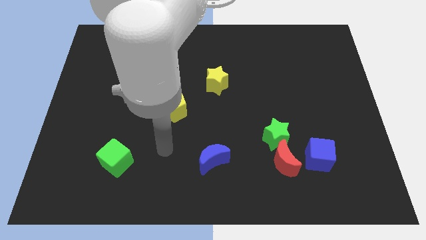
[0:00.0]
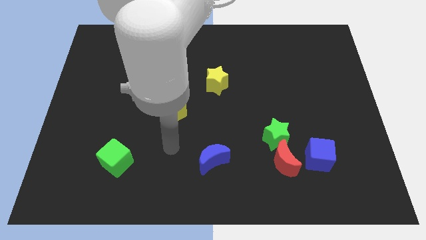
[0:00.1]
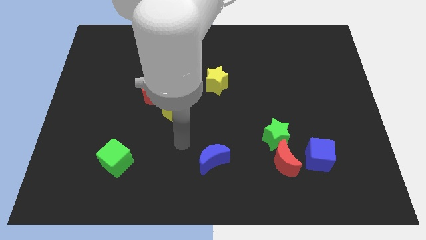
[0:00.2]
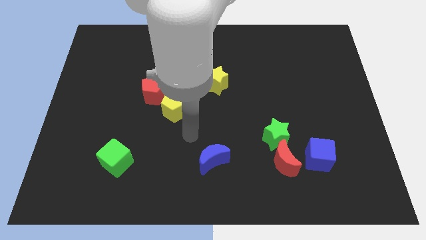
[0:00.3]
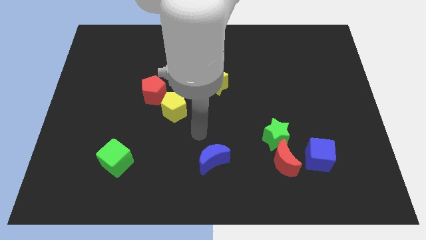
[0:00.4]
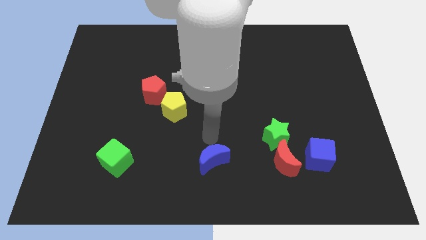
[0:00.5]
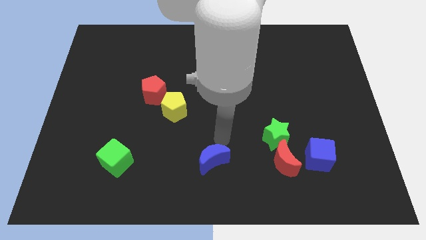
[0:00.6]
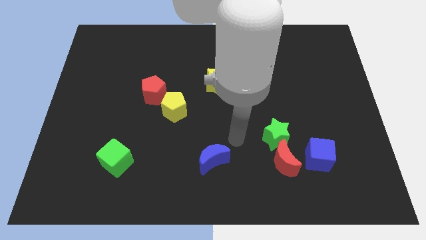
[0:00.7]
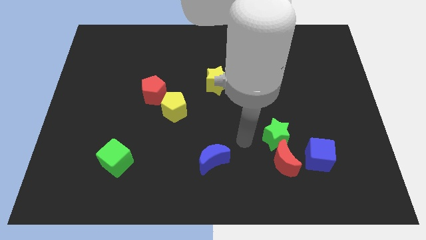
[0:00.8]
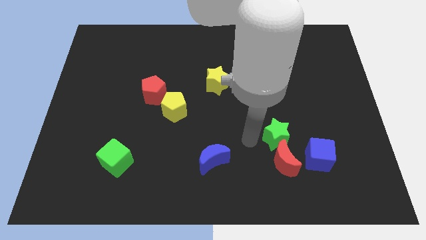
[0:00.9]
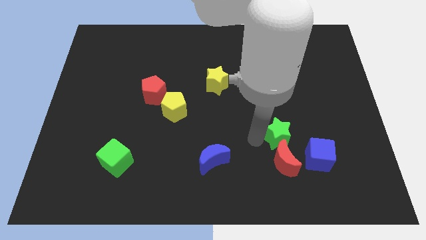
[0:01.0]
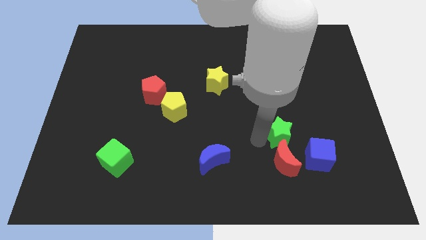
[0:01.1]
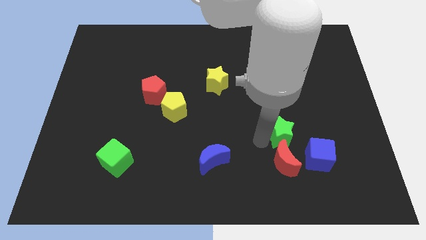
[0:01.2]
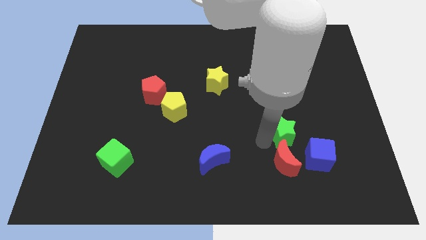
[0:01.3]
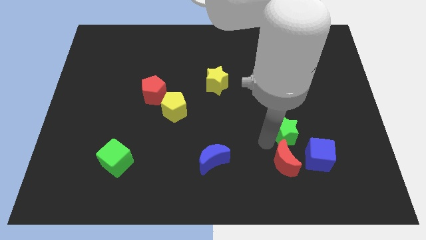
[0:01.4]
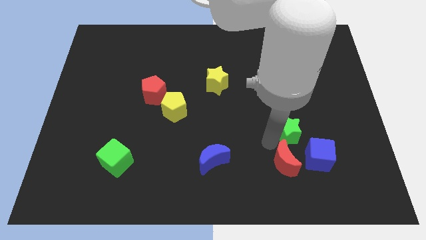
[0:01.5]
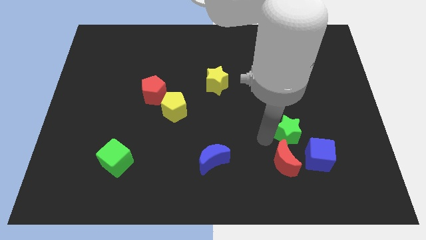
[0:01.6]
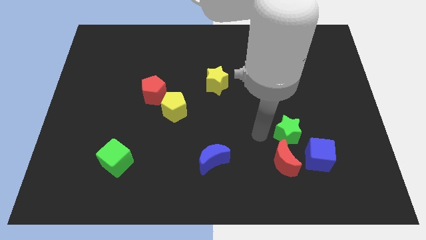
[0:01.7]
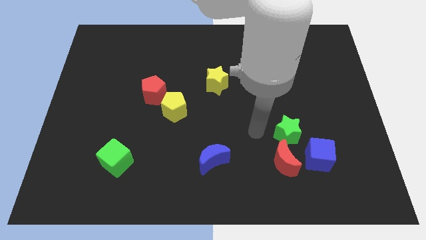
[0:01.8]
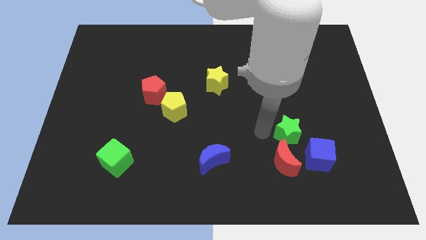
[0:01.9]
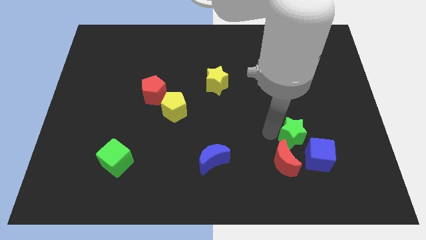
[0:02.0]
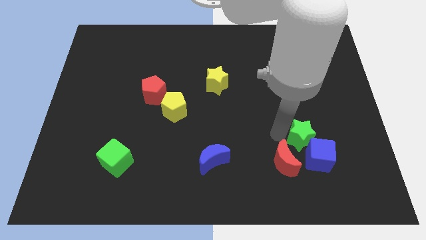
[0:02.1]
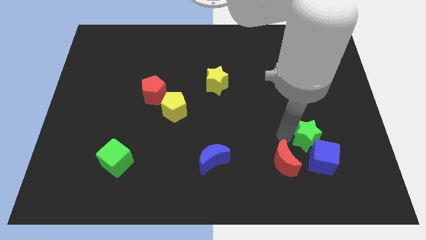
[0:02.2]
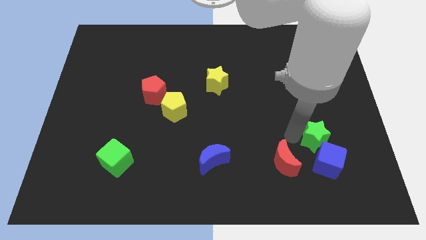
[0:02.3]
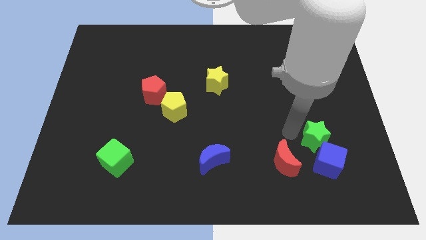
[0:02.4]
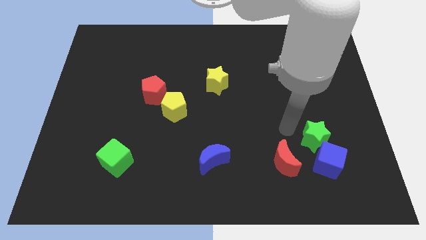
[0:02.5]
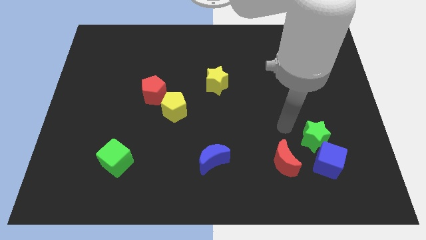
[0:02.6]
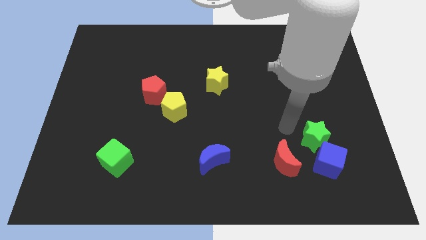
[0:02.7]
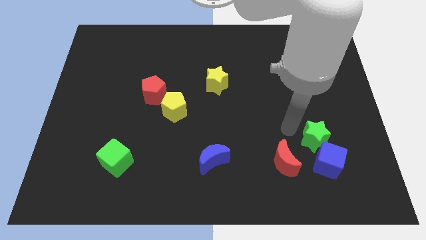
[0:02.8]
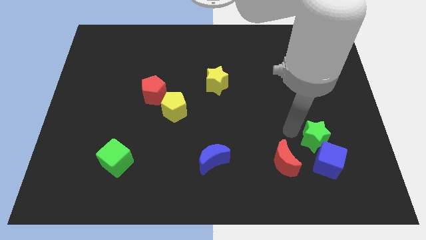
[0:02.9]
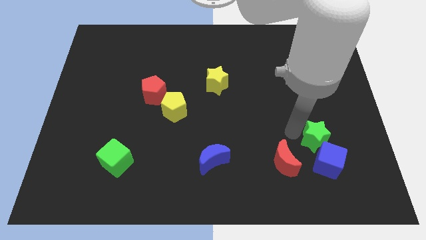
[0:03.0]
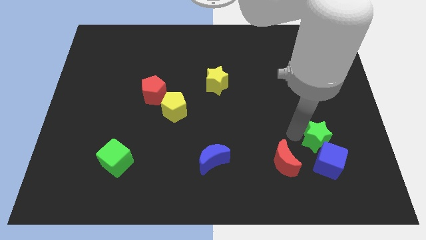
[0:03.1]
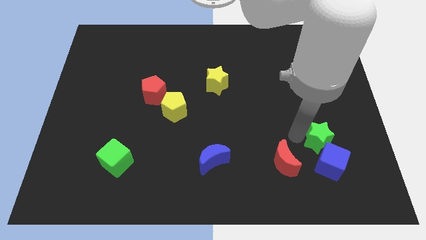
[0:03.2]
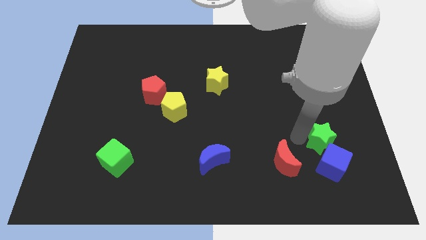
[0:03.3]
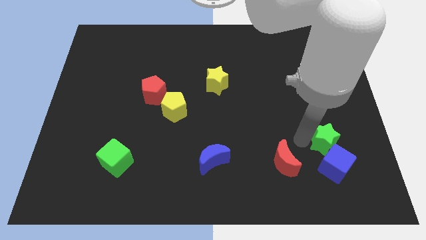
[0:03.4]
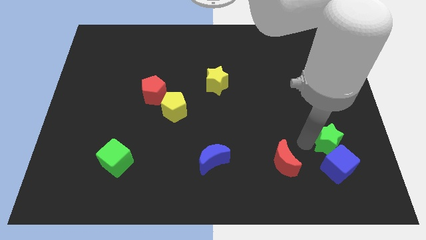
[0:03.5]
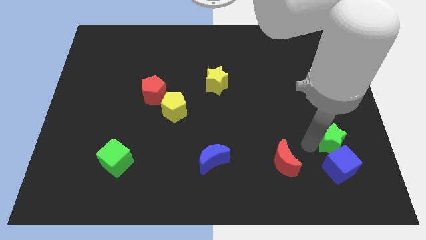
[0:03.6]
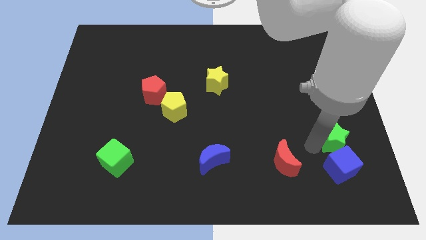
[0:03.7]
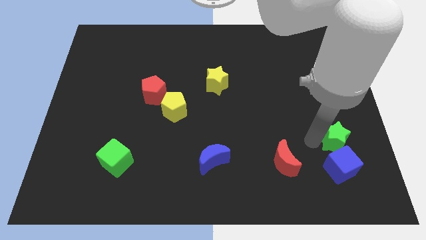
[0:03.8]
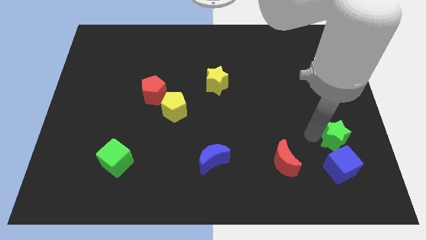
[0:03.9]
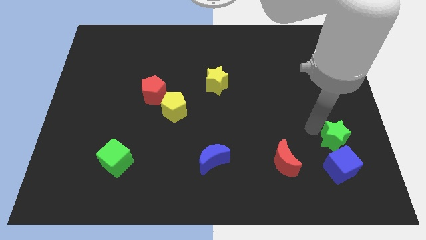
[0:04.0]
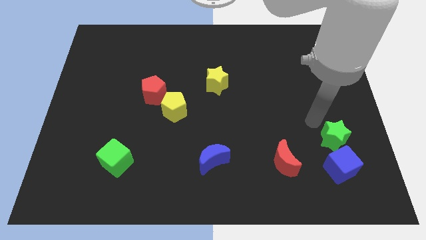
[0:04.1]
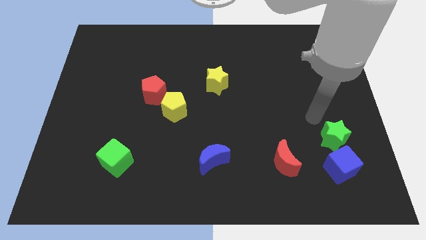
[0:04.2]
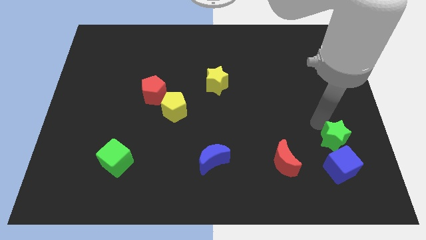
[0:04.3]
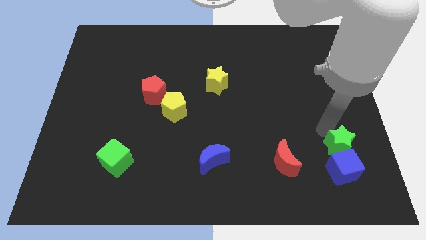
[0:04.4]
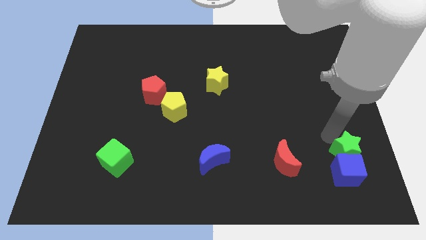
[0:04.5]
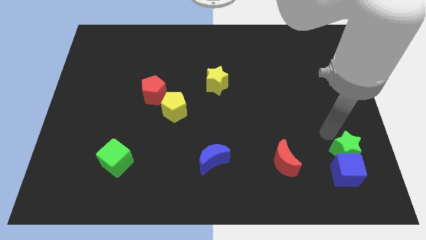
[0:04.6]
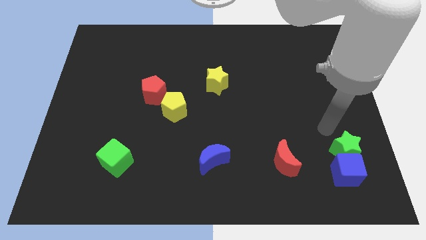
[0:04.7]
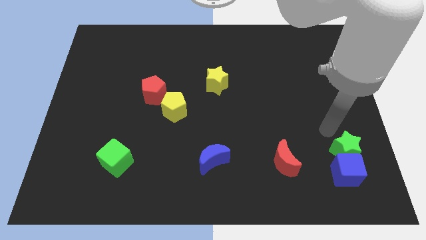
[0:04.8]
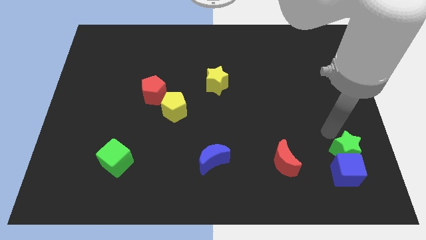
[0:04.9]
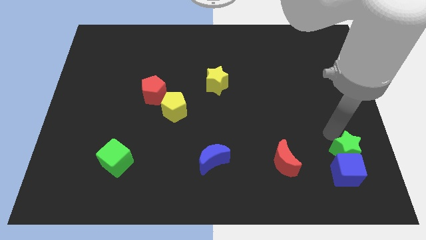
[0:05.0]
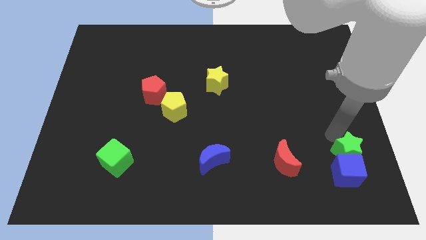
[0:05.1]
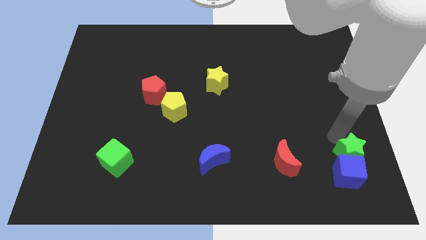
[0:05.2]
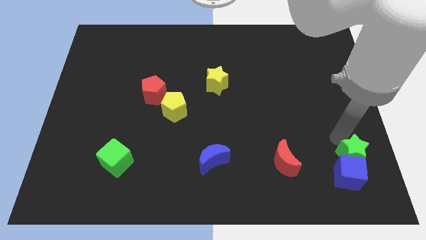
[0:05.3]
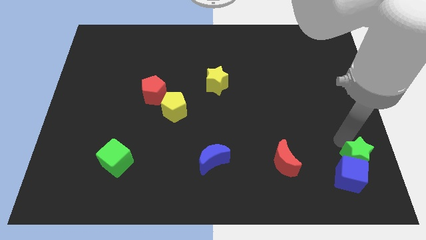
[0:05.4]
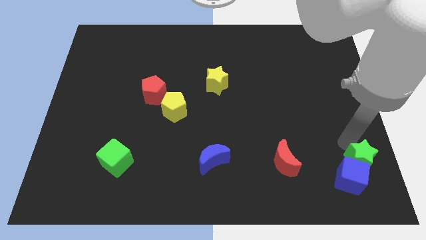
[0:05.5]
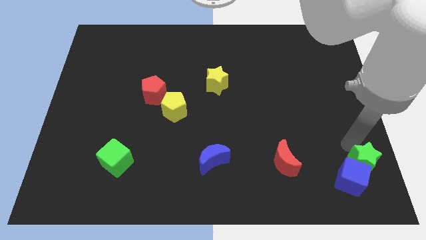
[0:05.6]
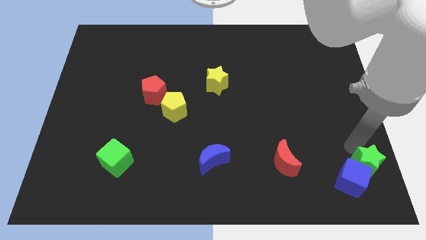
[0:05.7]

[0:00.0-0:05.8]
move the green star to the bottom right of the board

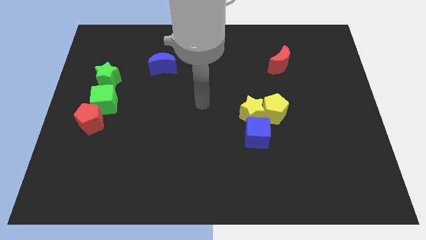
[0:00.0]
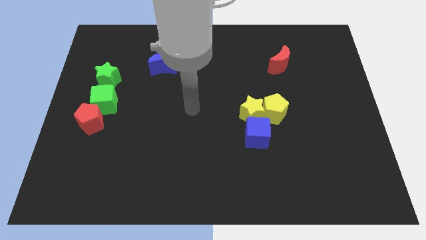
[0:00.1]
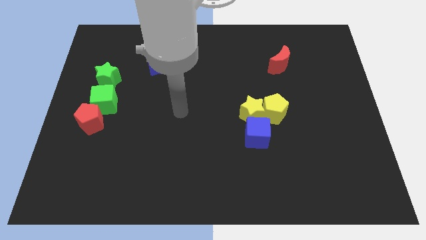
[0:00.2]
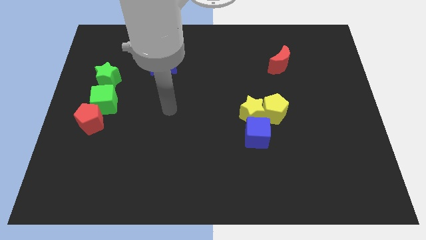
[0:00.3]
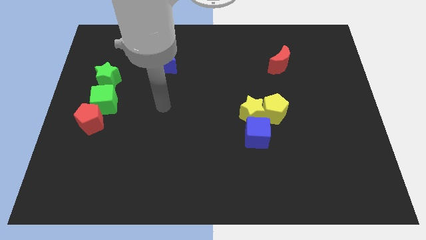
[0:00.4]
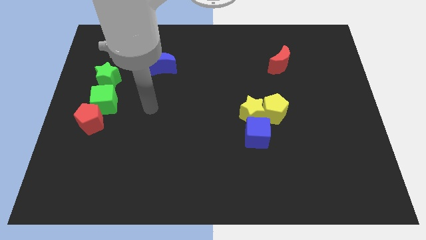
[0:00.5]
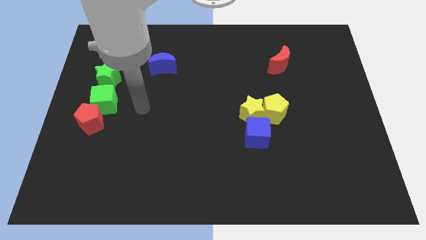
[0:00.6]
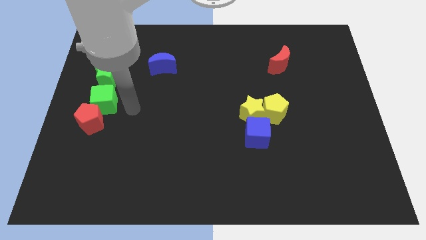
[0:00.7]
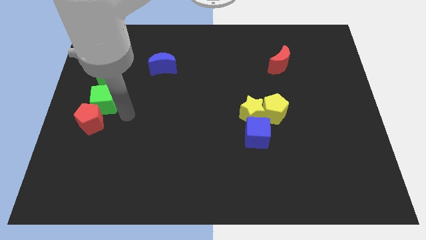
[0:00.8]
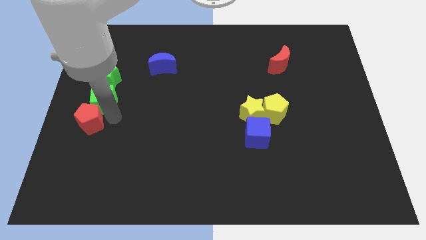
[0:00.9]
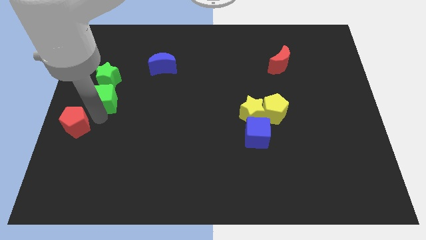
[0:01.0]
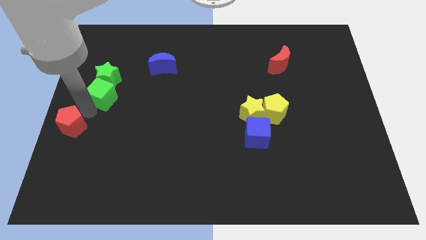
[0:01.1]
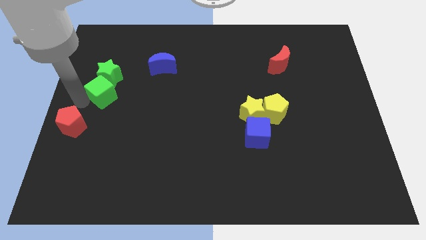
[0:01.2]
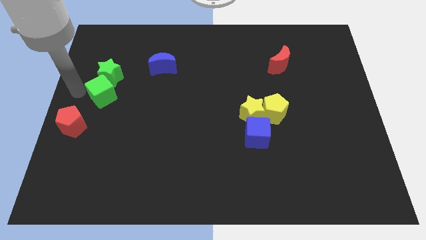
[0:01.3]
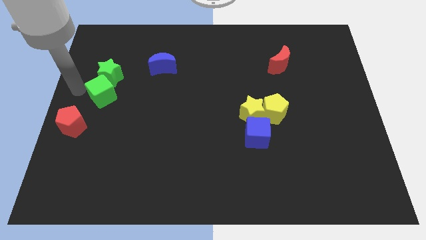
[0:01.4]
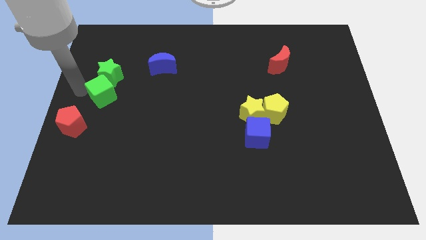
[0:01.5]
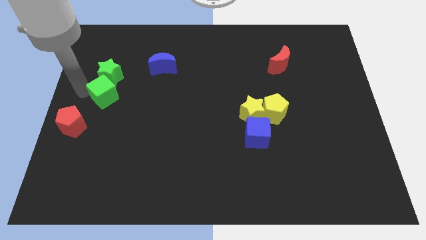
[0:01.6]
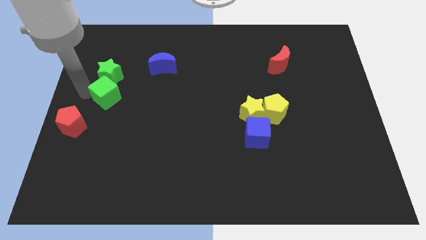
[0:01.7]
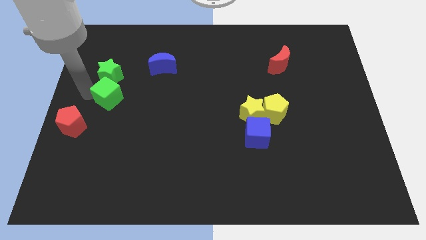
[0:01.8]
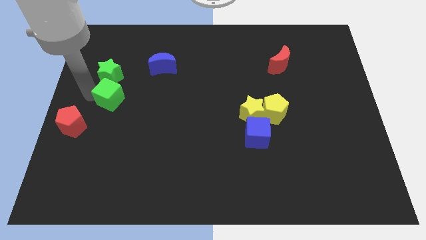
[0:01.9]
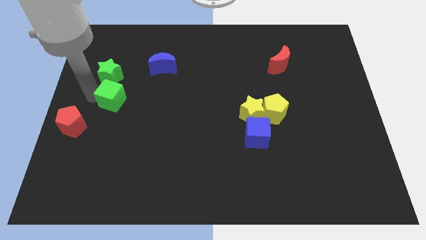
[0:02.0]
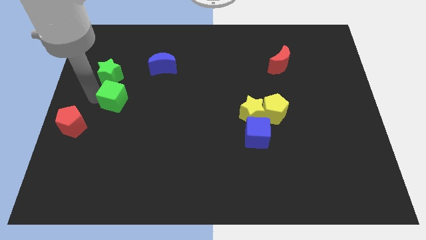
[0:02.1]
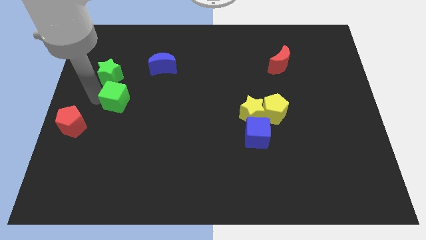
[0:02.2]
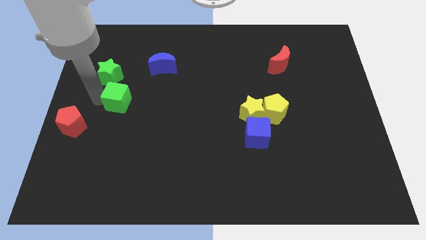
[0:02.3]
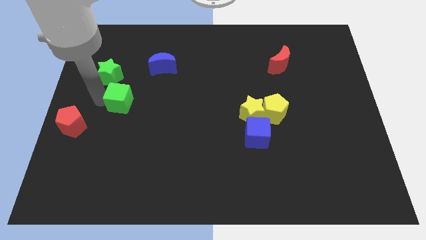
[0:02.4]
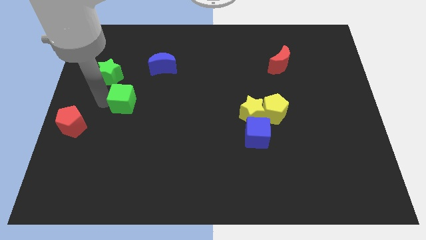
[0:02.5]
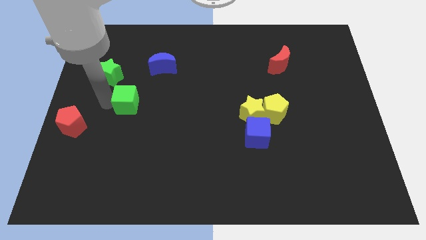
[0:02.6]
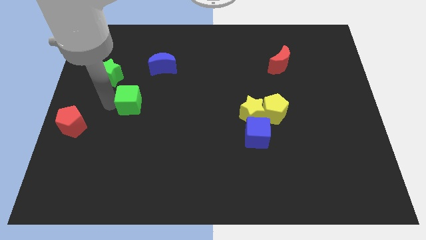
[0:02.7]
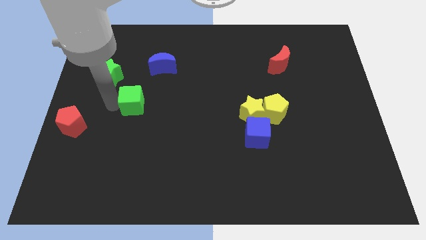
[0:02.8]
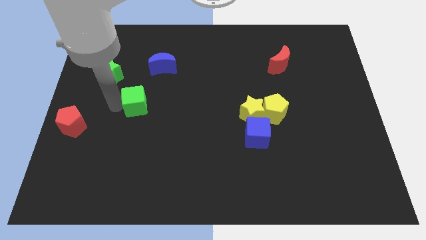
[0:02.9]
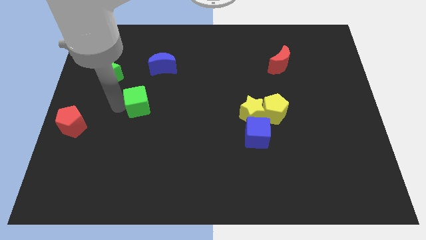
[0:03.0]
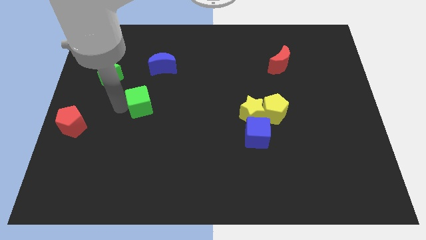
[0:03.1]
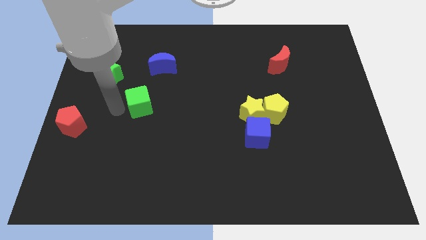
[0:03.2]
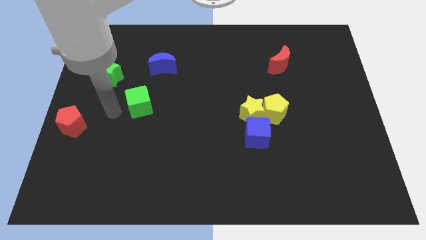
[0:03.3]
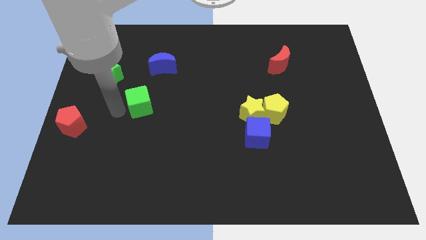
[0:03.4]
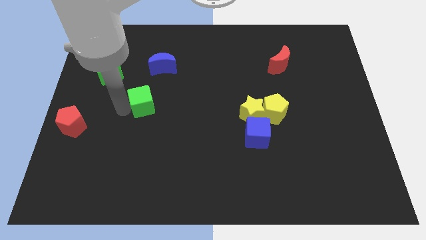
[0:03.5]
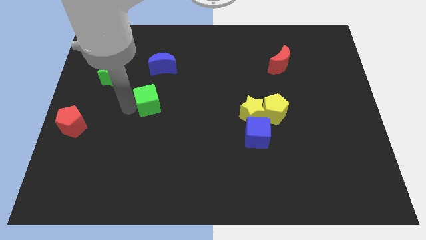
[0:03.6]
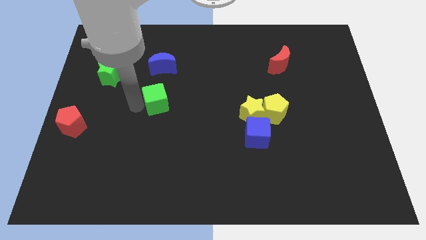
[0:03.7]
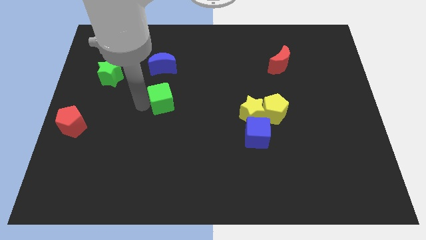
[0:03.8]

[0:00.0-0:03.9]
push the green cube to the middle of the board
